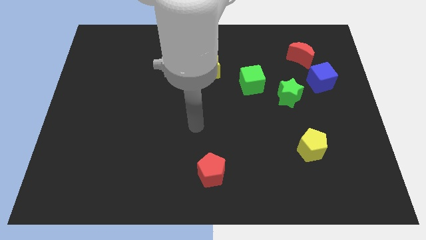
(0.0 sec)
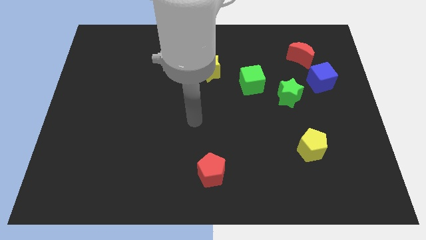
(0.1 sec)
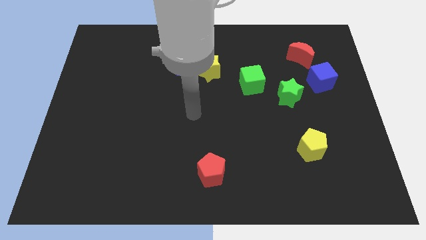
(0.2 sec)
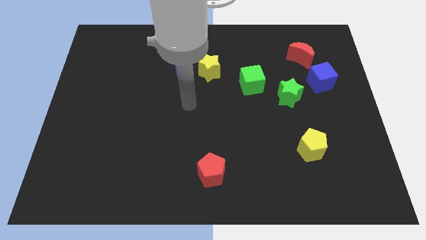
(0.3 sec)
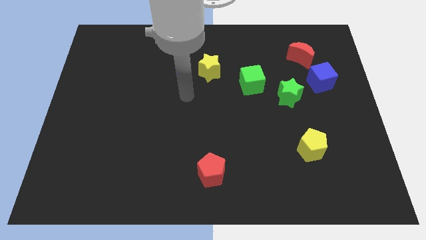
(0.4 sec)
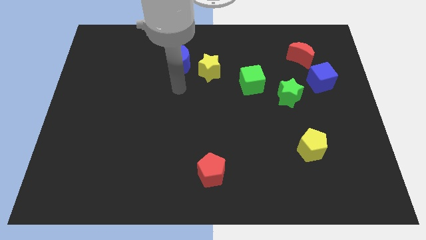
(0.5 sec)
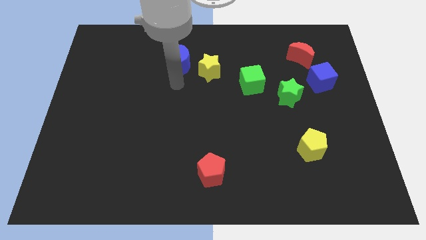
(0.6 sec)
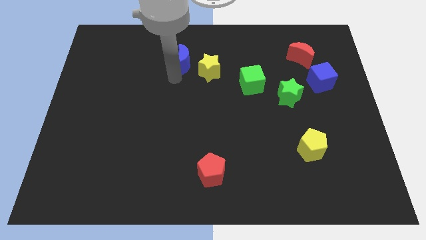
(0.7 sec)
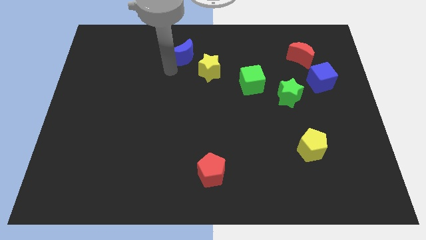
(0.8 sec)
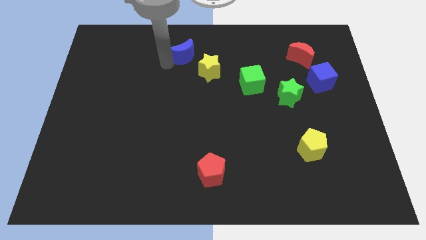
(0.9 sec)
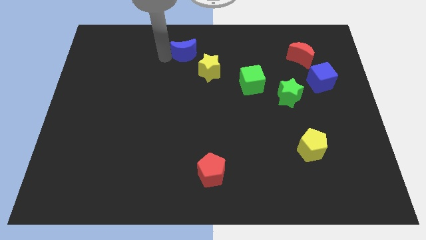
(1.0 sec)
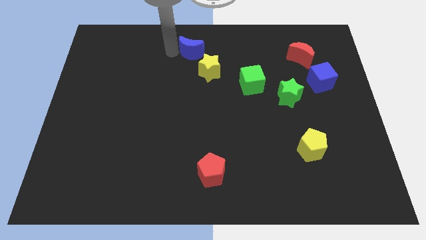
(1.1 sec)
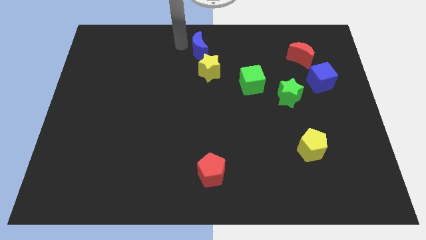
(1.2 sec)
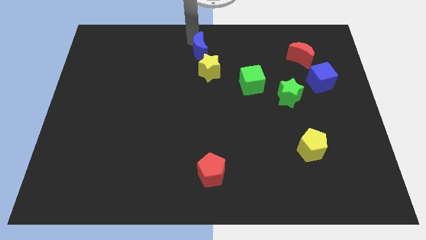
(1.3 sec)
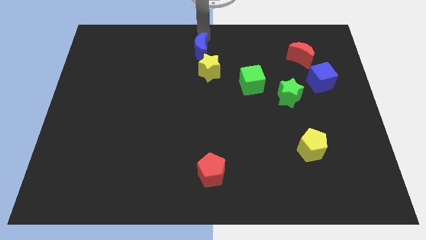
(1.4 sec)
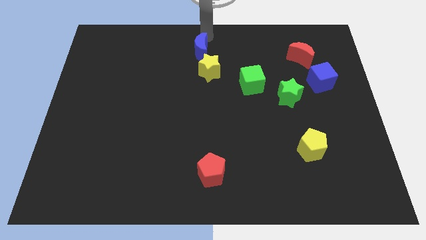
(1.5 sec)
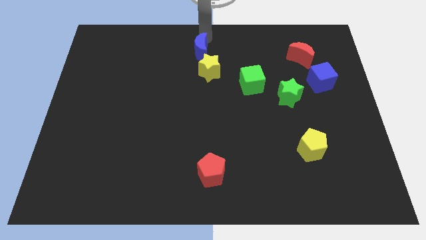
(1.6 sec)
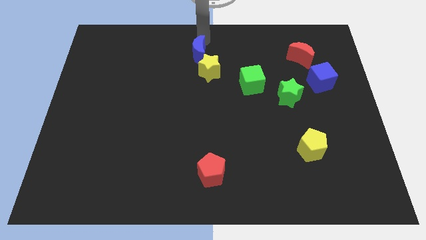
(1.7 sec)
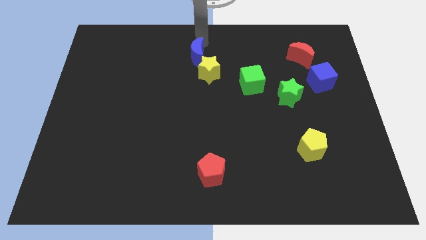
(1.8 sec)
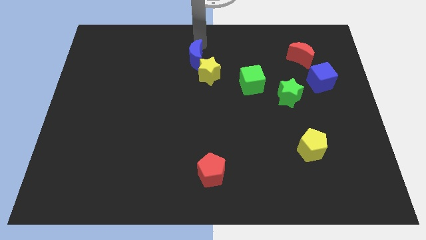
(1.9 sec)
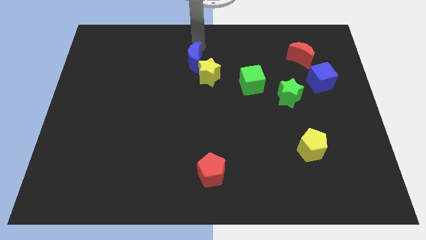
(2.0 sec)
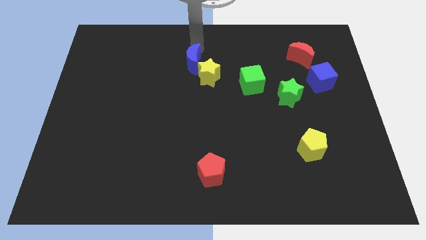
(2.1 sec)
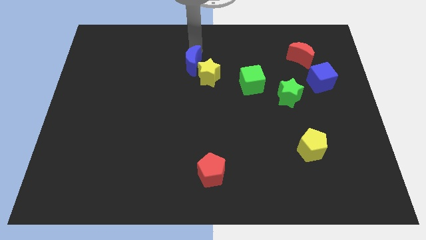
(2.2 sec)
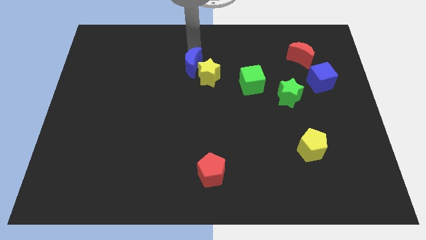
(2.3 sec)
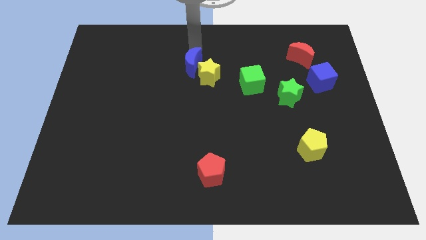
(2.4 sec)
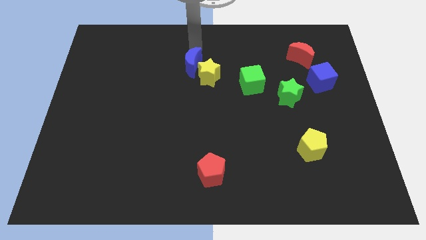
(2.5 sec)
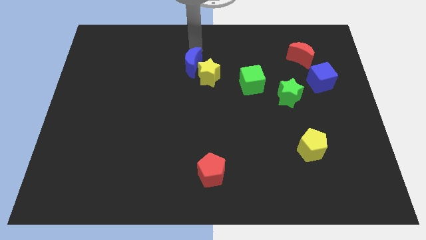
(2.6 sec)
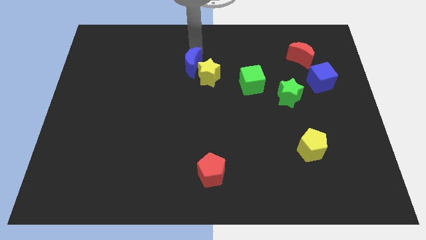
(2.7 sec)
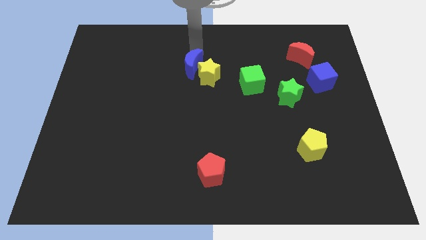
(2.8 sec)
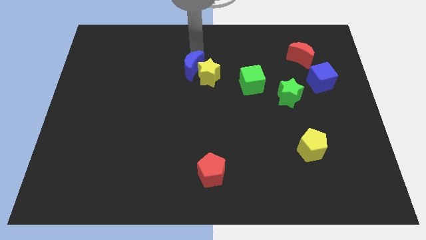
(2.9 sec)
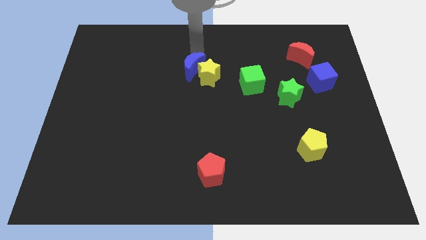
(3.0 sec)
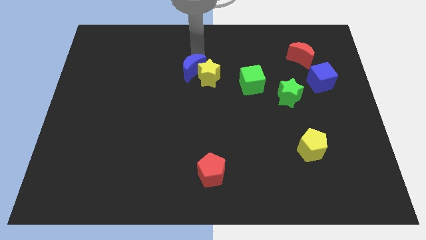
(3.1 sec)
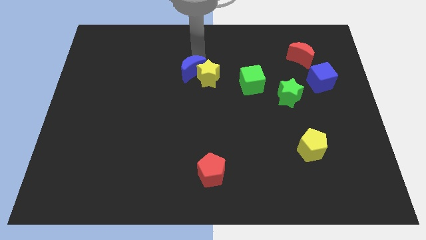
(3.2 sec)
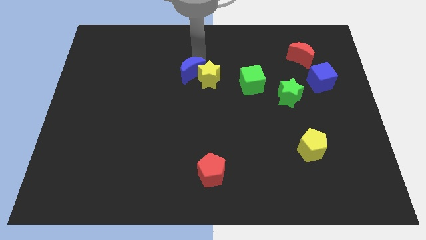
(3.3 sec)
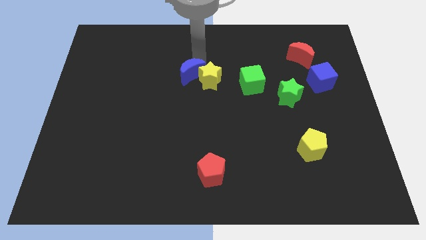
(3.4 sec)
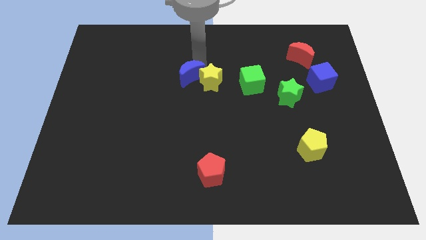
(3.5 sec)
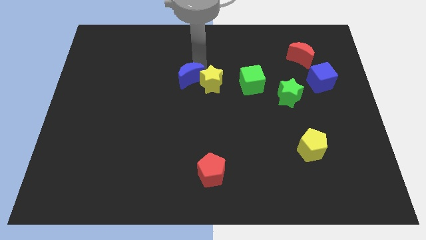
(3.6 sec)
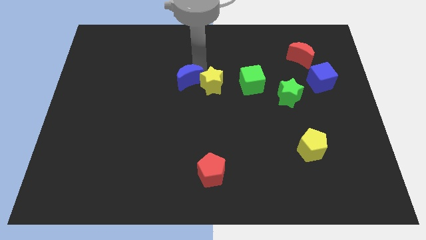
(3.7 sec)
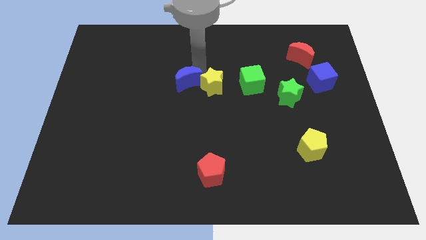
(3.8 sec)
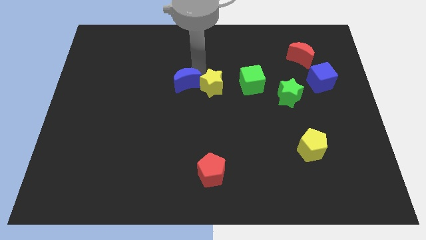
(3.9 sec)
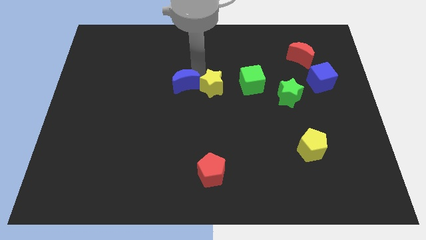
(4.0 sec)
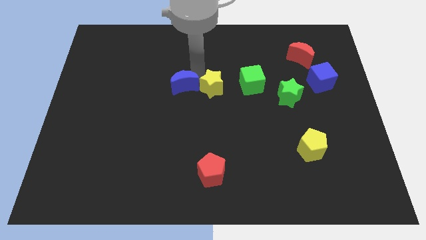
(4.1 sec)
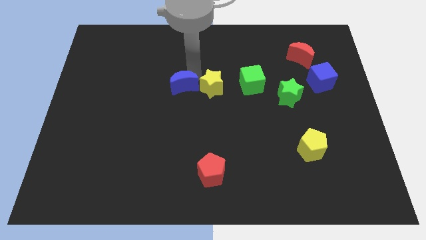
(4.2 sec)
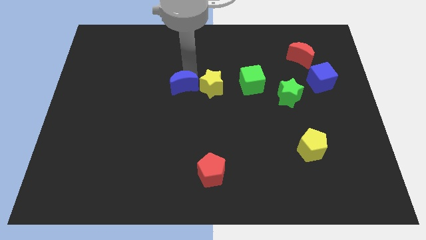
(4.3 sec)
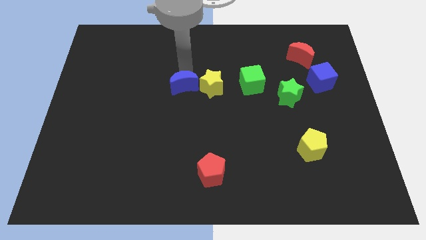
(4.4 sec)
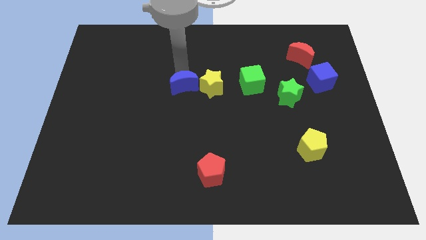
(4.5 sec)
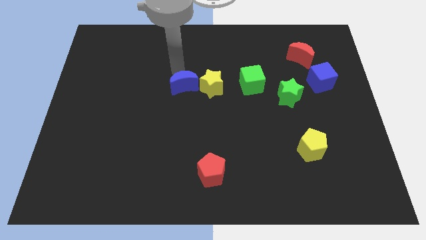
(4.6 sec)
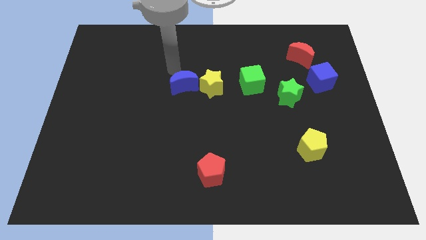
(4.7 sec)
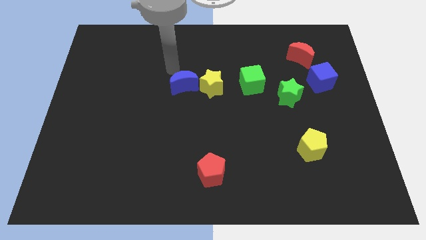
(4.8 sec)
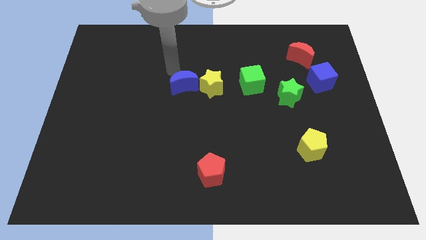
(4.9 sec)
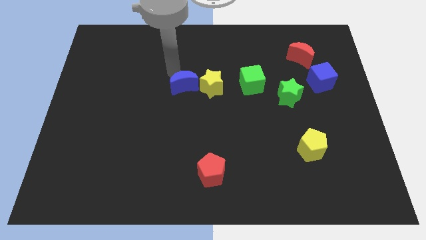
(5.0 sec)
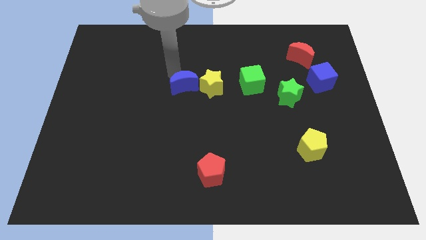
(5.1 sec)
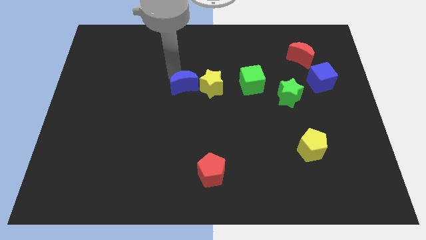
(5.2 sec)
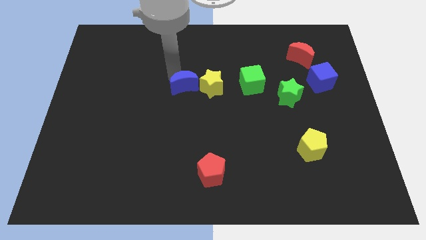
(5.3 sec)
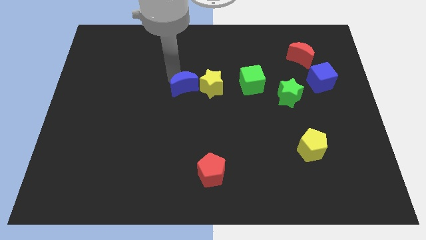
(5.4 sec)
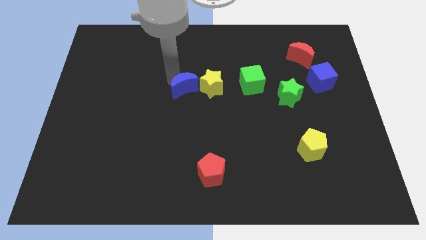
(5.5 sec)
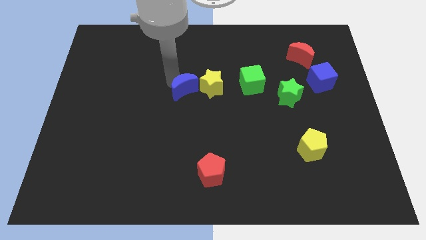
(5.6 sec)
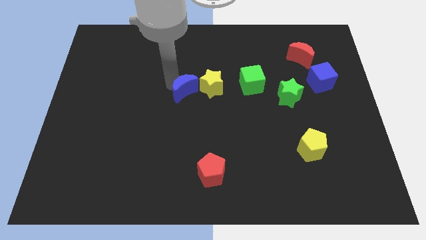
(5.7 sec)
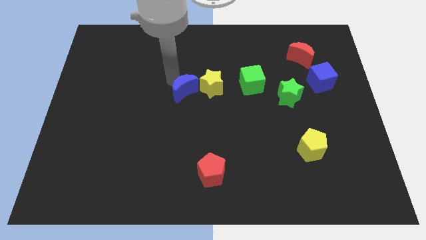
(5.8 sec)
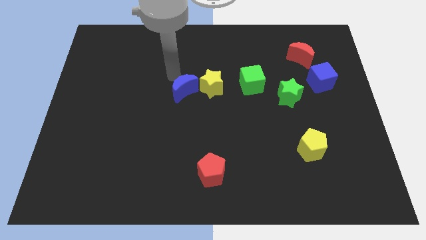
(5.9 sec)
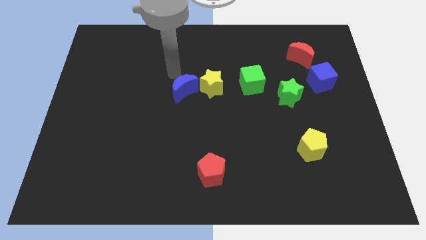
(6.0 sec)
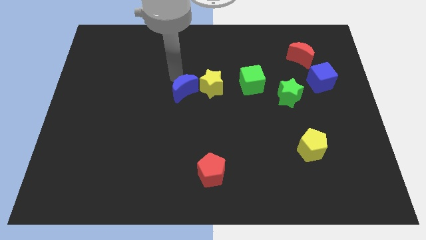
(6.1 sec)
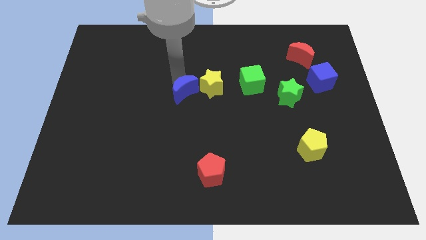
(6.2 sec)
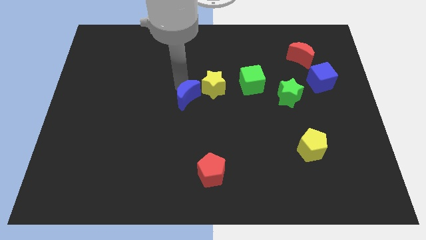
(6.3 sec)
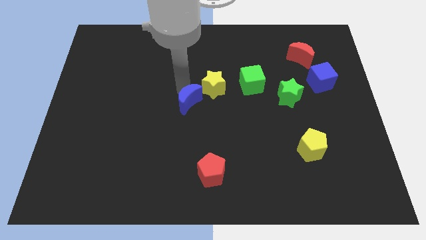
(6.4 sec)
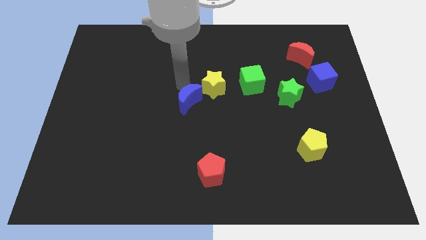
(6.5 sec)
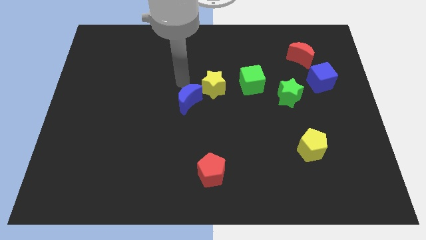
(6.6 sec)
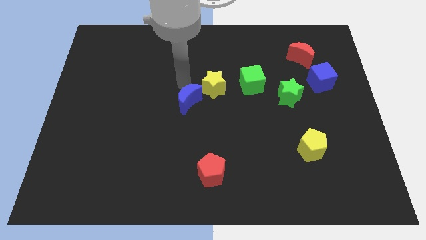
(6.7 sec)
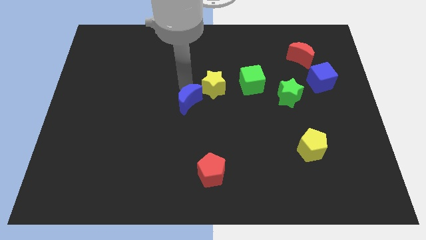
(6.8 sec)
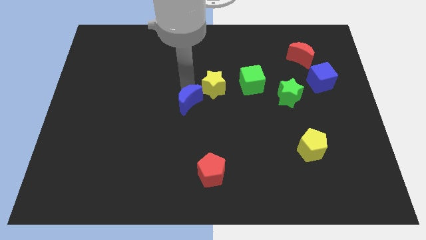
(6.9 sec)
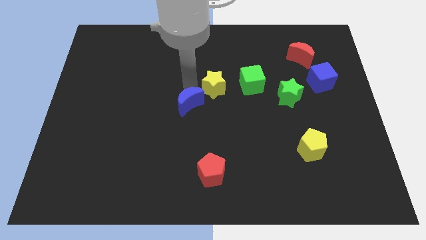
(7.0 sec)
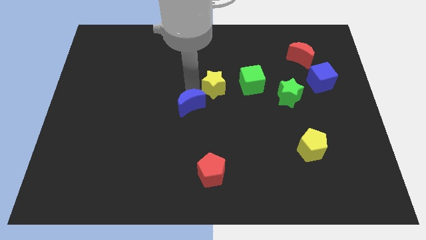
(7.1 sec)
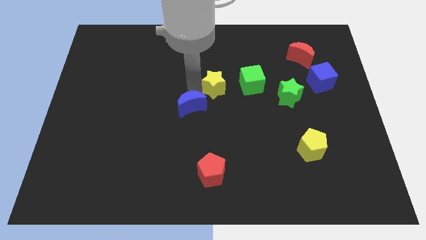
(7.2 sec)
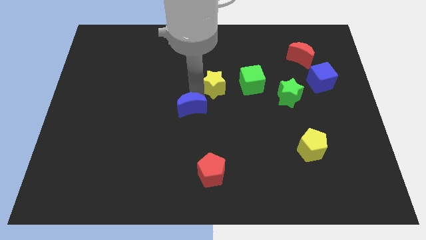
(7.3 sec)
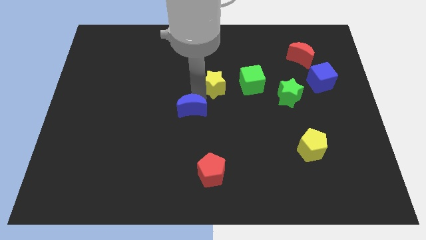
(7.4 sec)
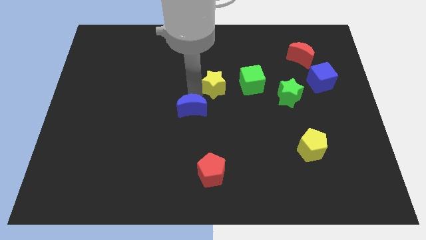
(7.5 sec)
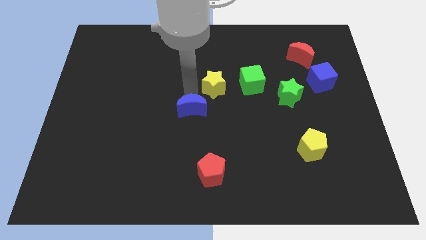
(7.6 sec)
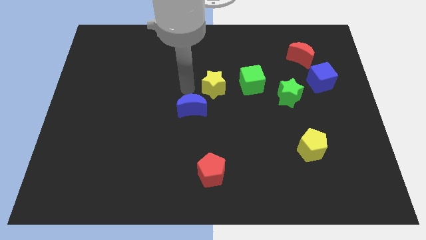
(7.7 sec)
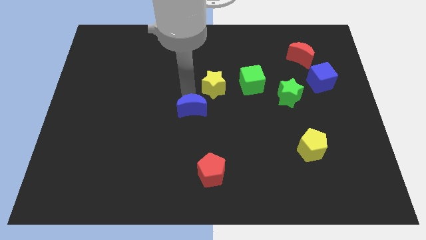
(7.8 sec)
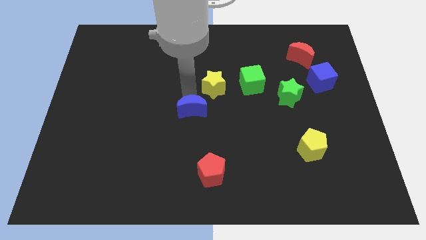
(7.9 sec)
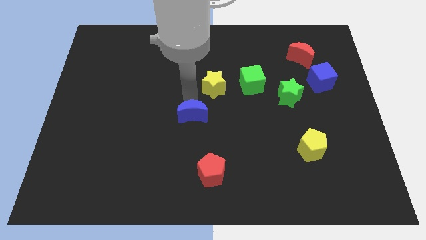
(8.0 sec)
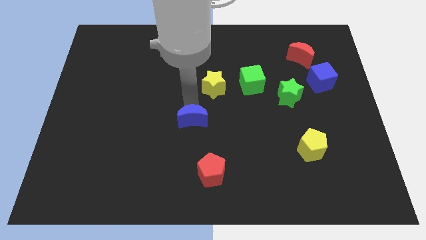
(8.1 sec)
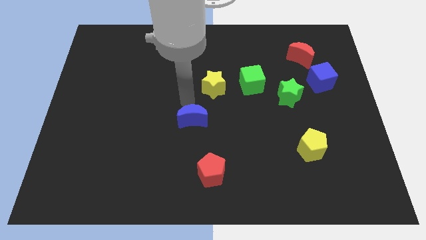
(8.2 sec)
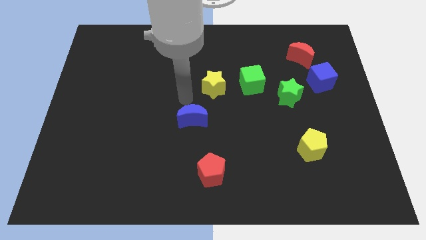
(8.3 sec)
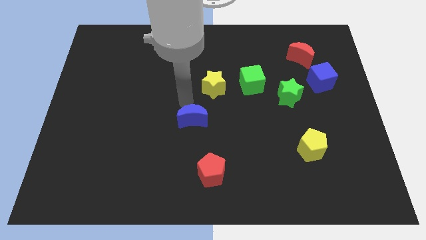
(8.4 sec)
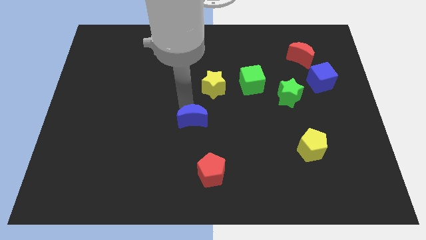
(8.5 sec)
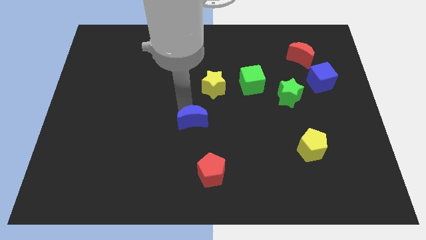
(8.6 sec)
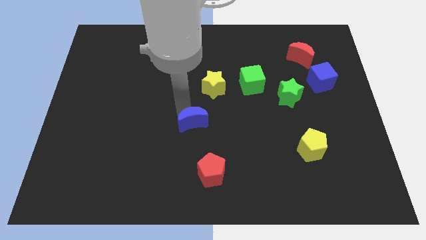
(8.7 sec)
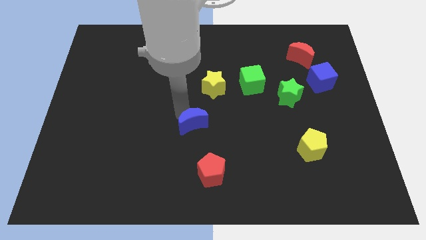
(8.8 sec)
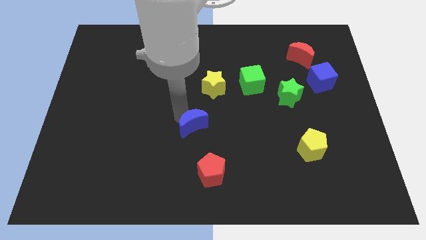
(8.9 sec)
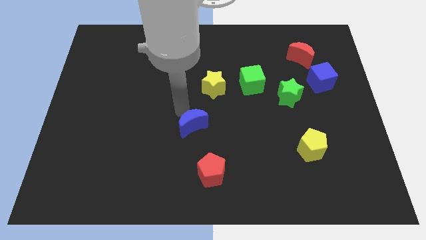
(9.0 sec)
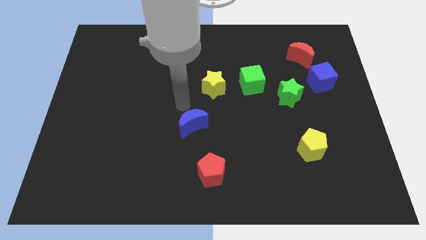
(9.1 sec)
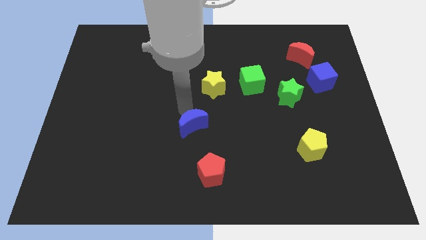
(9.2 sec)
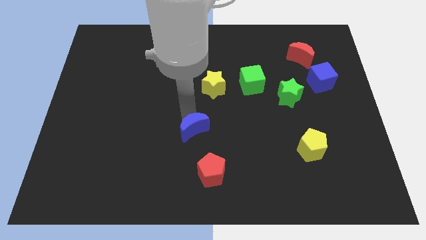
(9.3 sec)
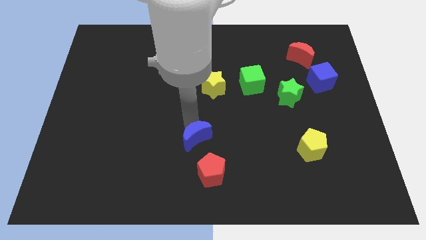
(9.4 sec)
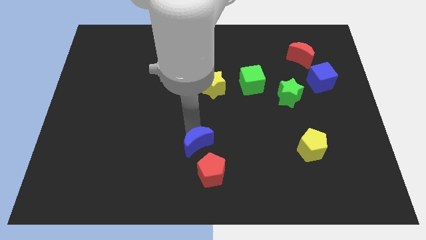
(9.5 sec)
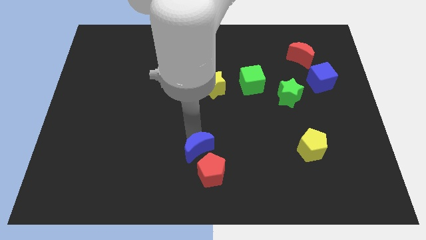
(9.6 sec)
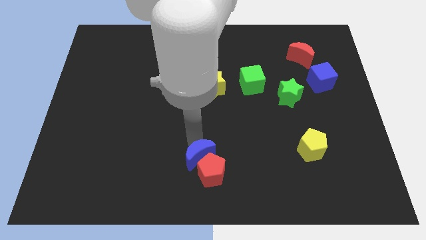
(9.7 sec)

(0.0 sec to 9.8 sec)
slide the blue moon next to the red pentagon
